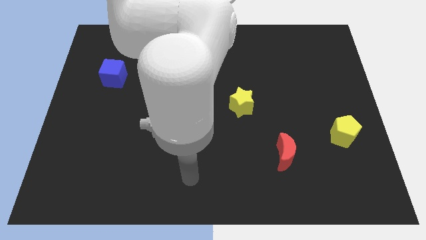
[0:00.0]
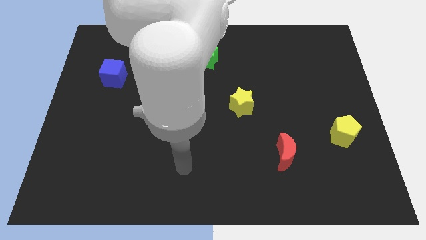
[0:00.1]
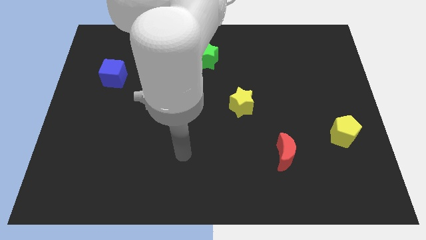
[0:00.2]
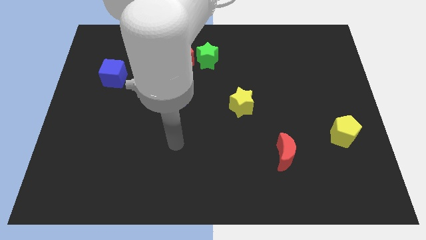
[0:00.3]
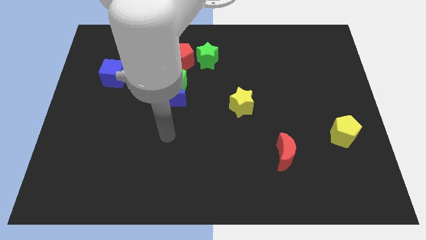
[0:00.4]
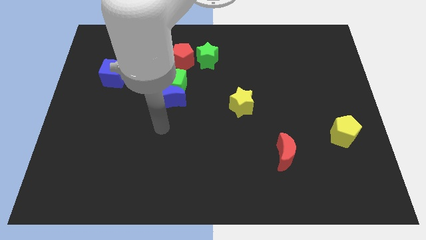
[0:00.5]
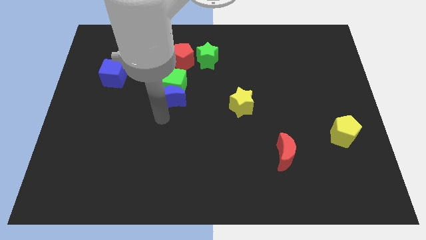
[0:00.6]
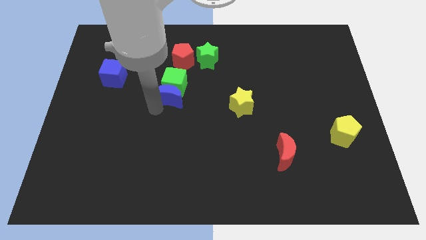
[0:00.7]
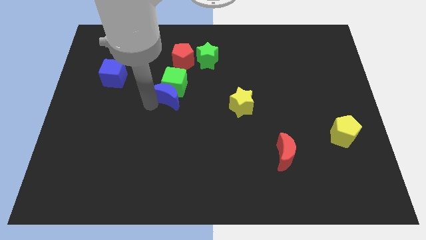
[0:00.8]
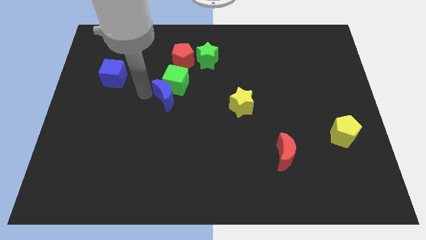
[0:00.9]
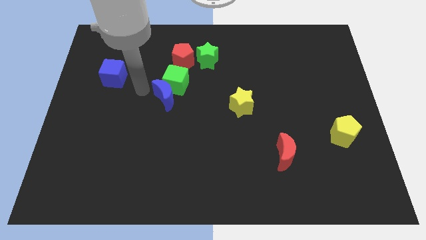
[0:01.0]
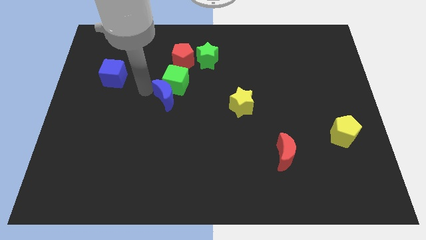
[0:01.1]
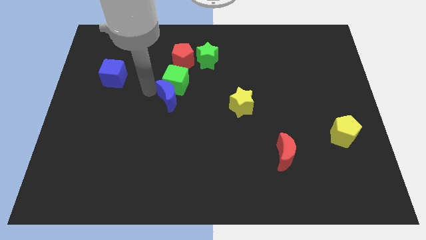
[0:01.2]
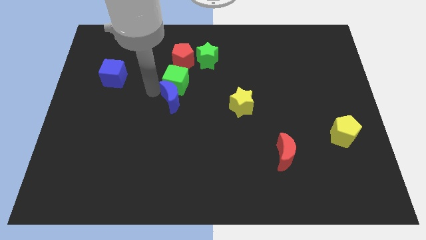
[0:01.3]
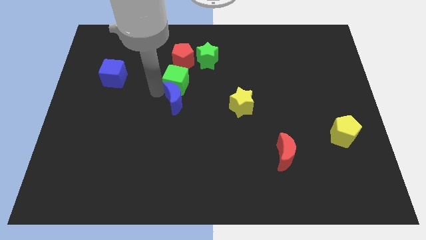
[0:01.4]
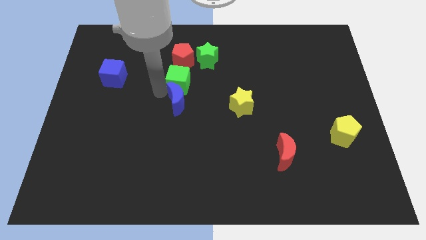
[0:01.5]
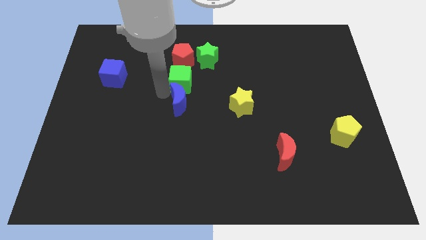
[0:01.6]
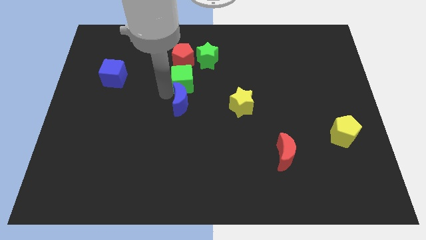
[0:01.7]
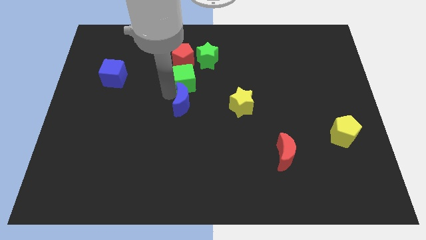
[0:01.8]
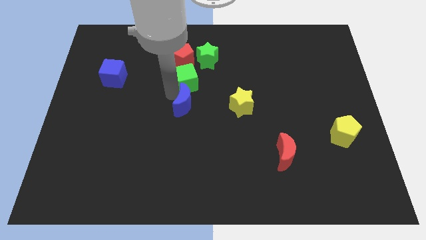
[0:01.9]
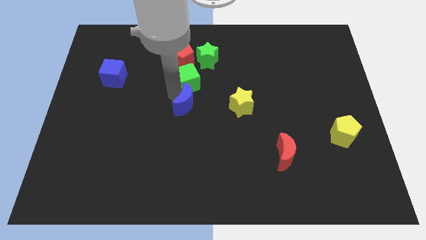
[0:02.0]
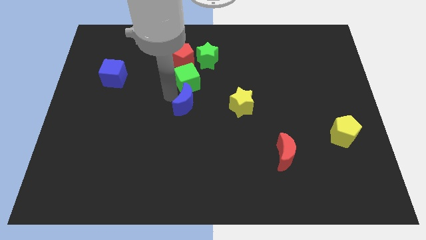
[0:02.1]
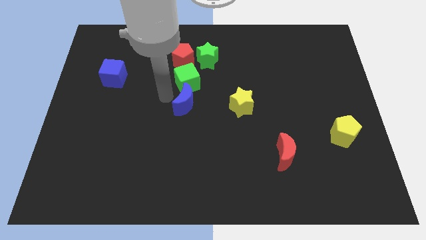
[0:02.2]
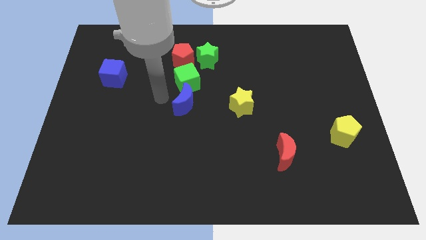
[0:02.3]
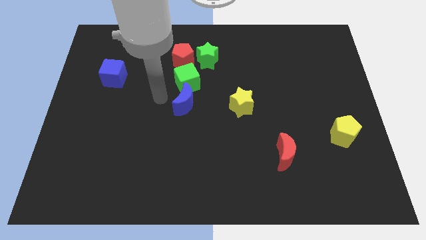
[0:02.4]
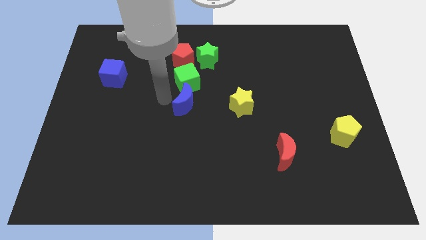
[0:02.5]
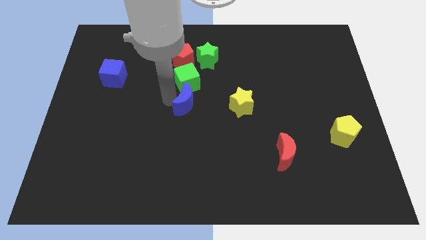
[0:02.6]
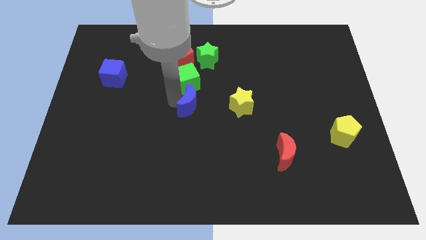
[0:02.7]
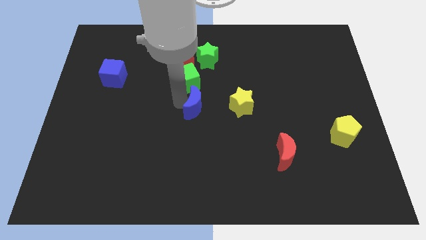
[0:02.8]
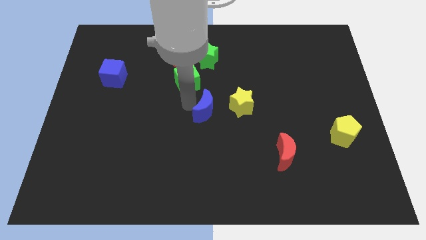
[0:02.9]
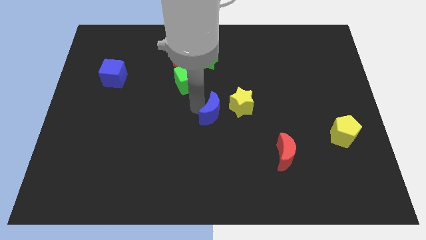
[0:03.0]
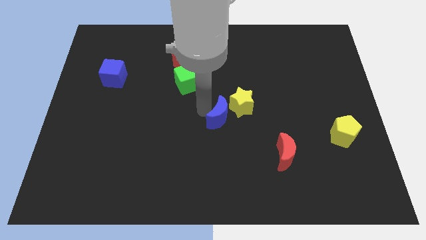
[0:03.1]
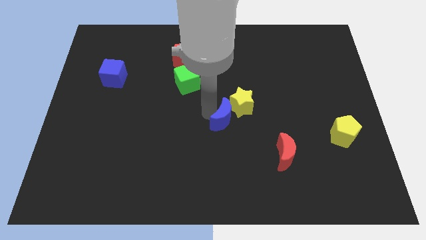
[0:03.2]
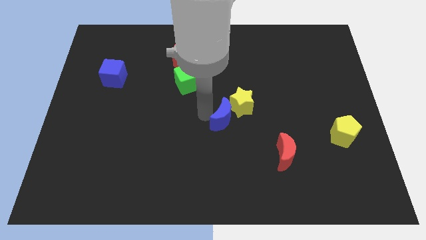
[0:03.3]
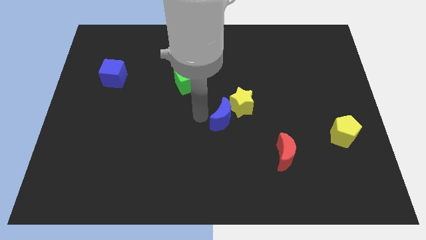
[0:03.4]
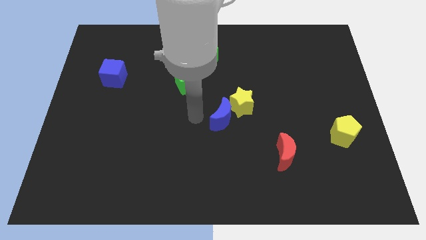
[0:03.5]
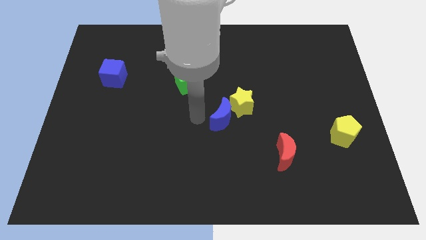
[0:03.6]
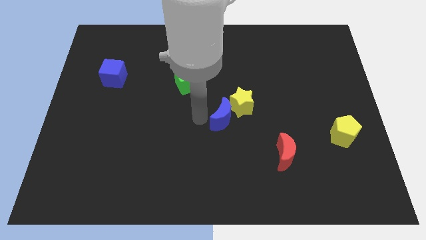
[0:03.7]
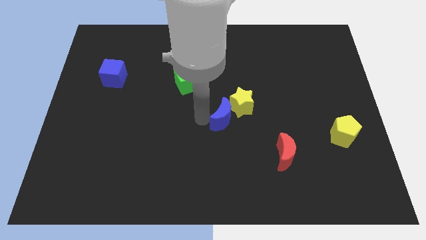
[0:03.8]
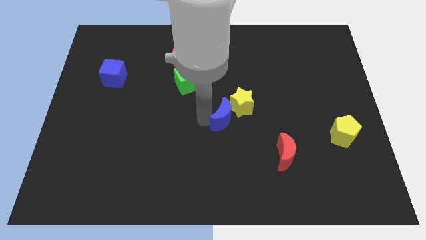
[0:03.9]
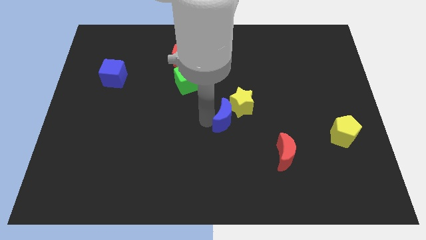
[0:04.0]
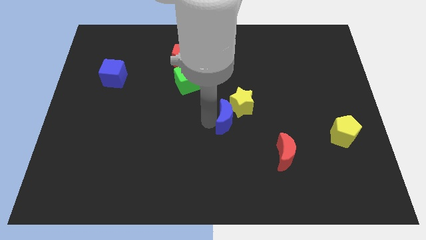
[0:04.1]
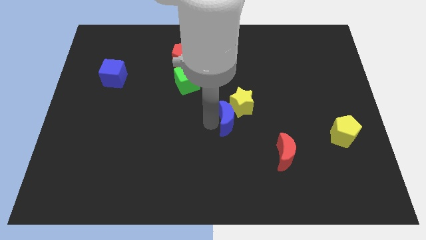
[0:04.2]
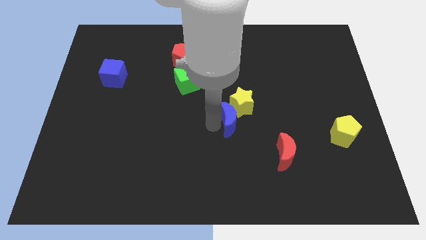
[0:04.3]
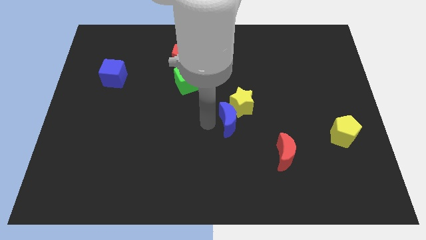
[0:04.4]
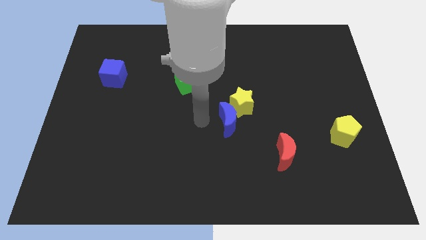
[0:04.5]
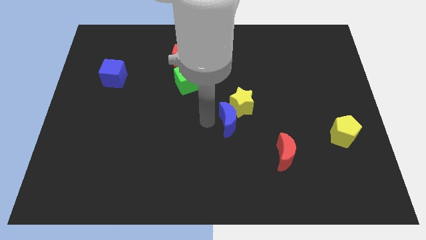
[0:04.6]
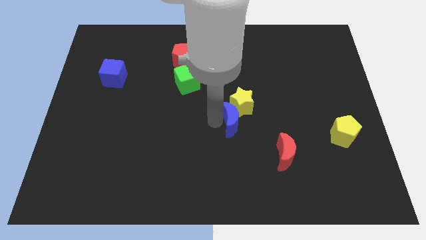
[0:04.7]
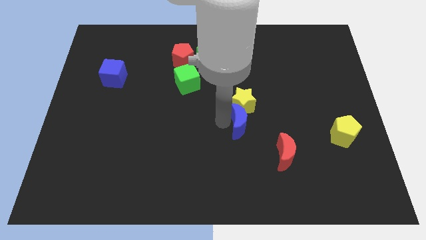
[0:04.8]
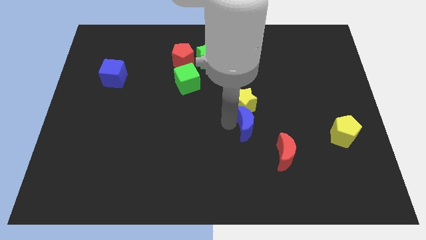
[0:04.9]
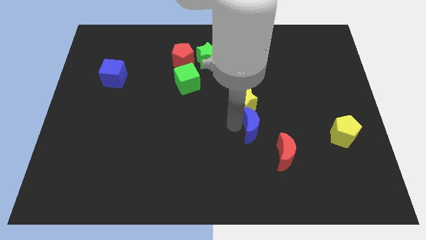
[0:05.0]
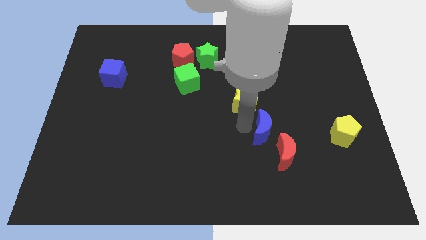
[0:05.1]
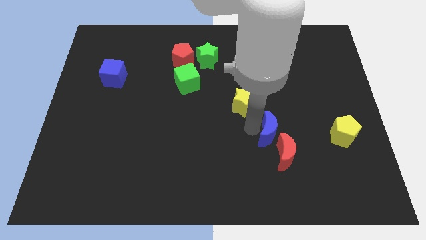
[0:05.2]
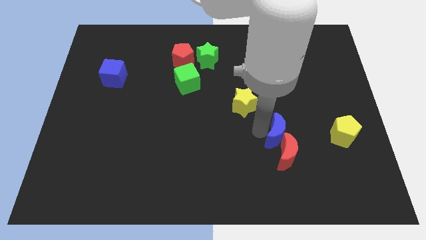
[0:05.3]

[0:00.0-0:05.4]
put the blue moon left of the yellow pentagon

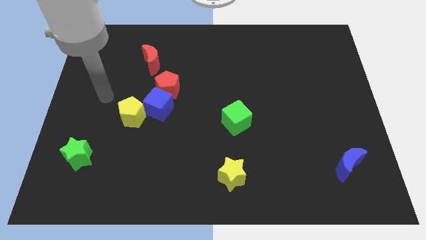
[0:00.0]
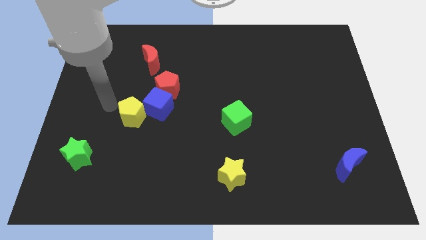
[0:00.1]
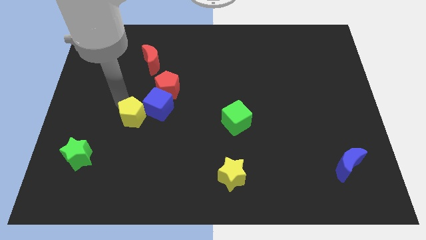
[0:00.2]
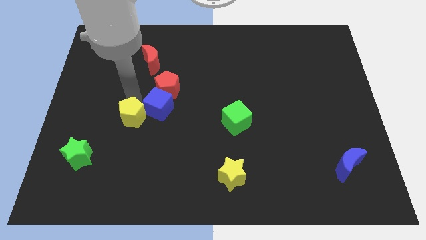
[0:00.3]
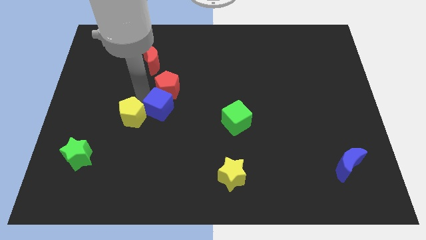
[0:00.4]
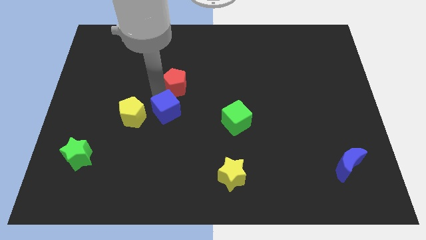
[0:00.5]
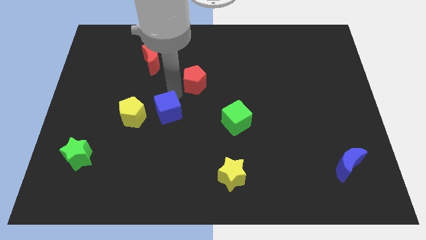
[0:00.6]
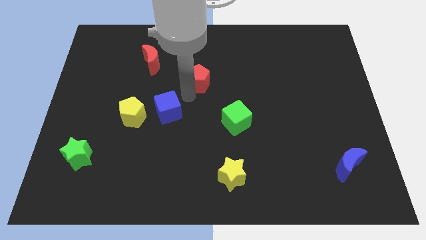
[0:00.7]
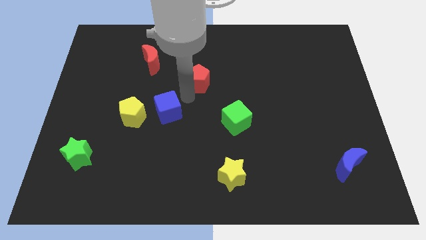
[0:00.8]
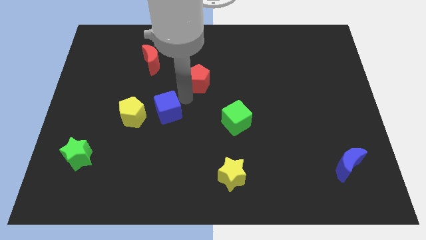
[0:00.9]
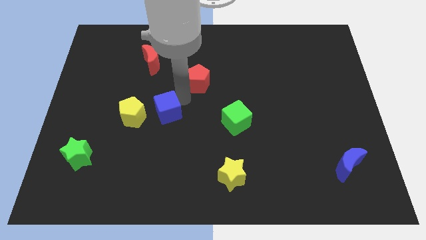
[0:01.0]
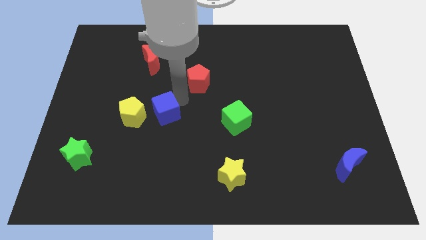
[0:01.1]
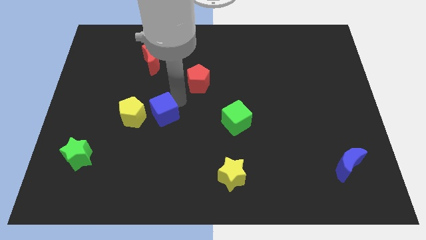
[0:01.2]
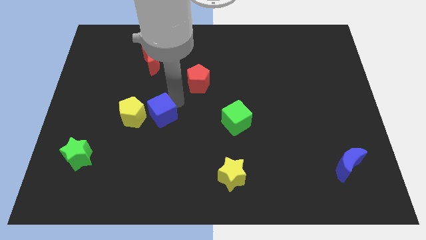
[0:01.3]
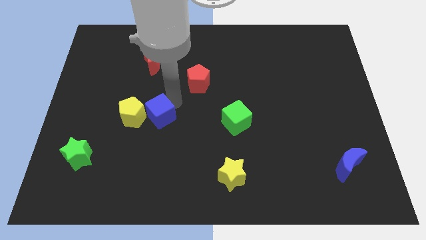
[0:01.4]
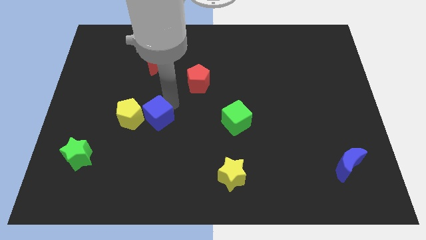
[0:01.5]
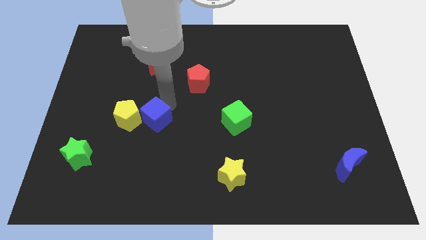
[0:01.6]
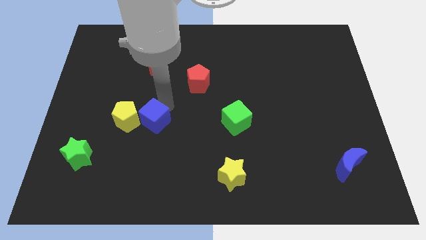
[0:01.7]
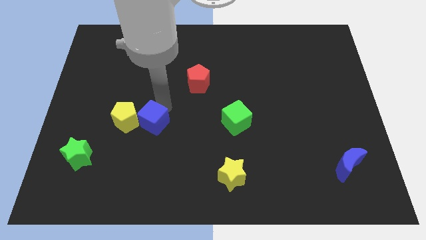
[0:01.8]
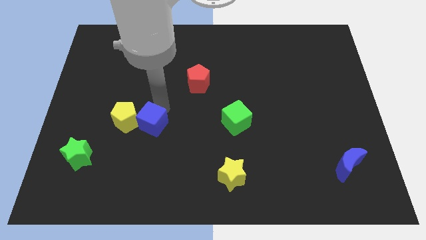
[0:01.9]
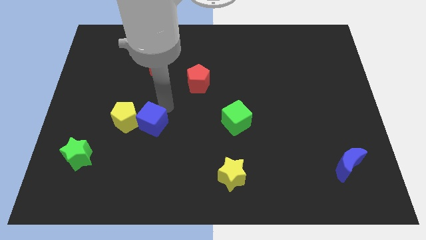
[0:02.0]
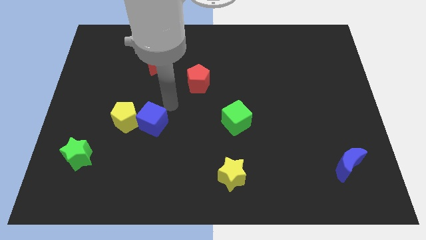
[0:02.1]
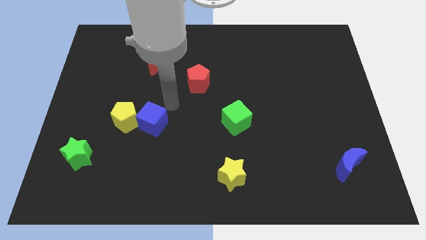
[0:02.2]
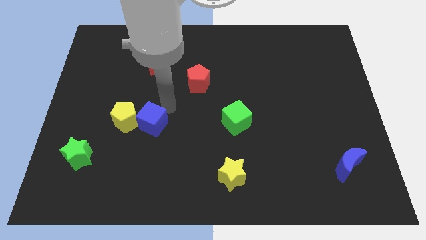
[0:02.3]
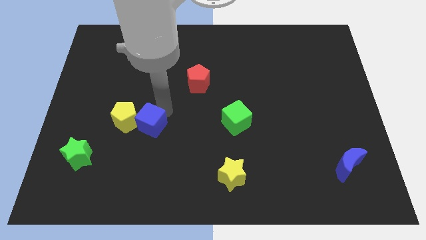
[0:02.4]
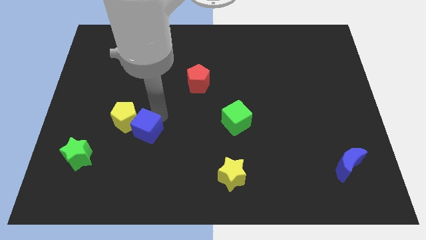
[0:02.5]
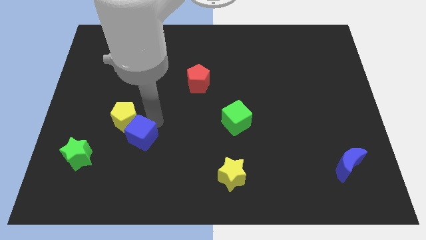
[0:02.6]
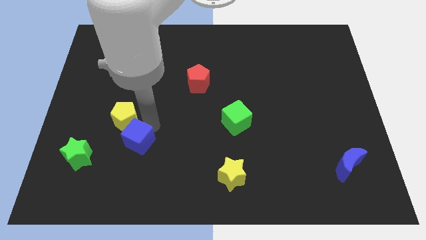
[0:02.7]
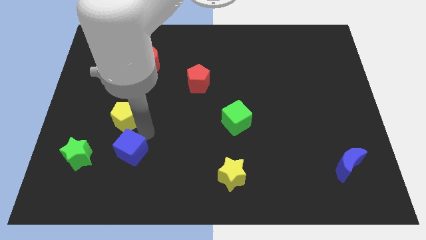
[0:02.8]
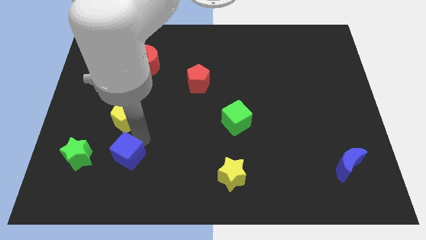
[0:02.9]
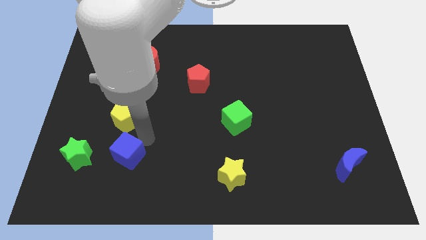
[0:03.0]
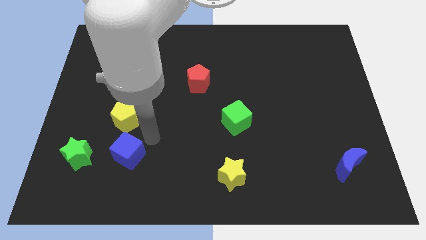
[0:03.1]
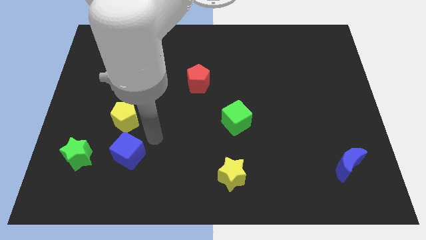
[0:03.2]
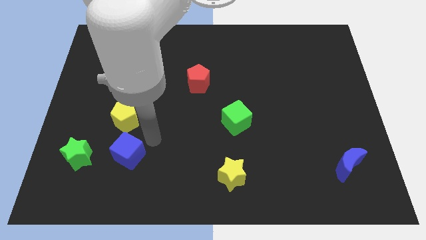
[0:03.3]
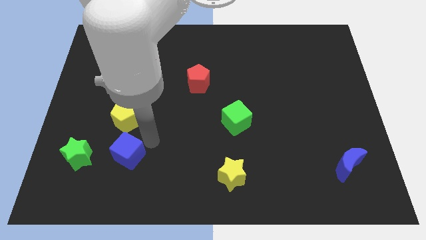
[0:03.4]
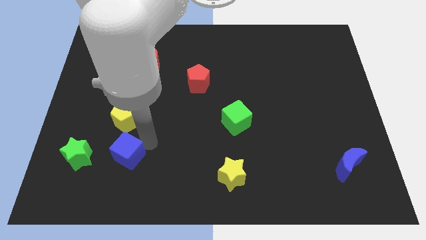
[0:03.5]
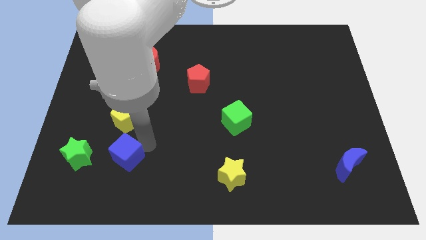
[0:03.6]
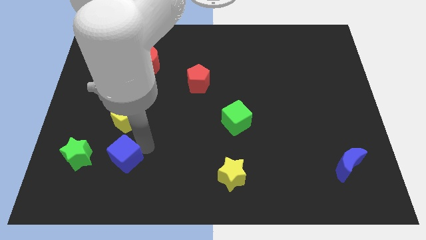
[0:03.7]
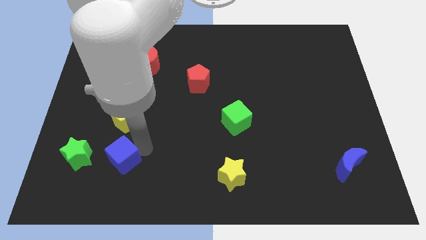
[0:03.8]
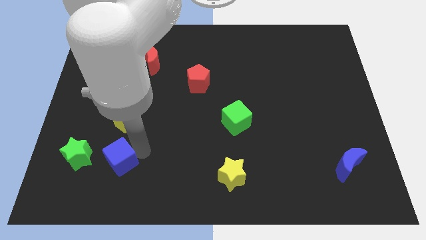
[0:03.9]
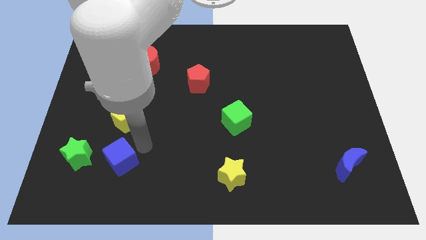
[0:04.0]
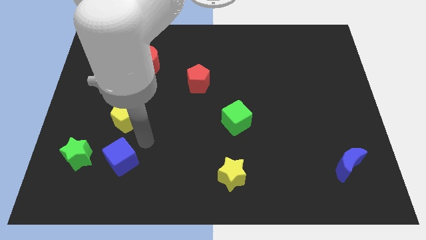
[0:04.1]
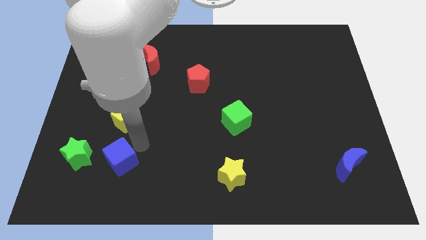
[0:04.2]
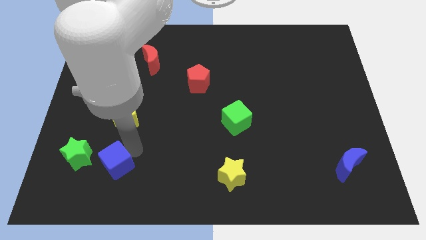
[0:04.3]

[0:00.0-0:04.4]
move the blue cube to the bottom right of the green star
